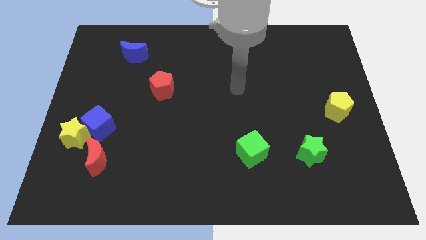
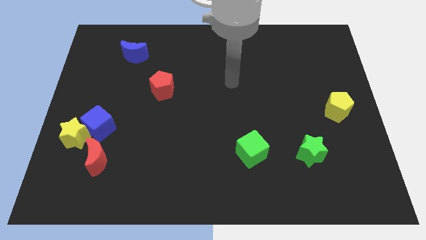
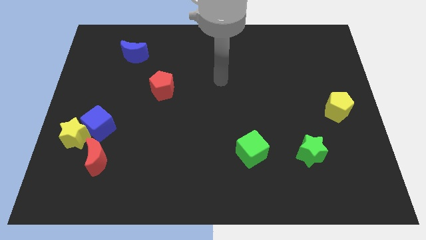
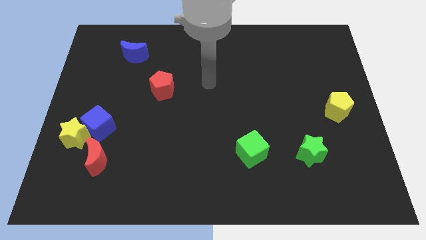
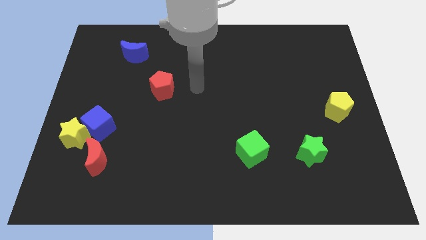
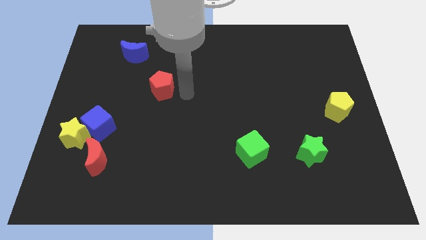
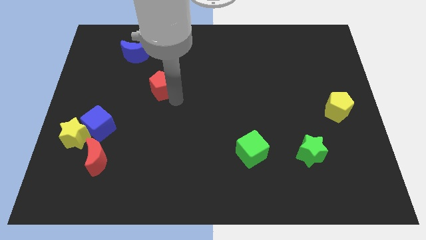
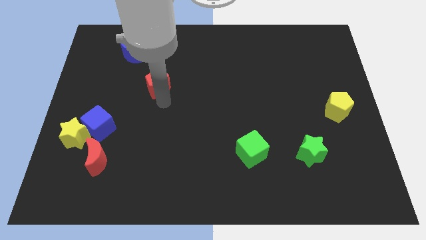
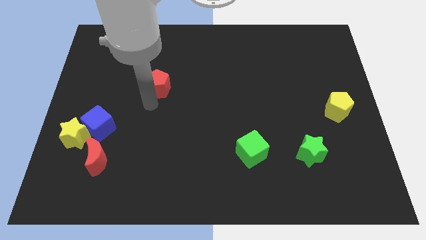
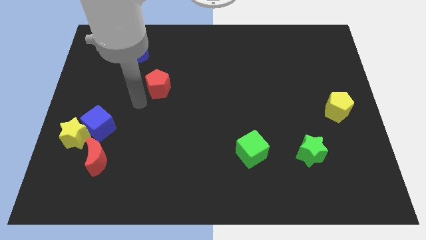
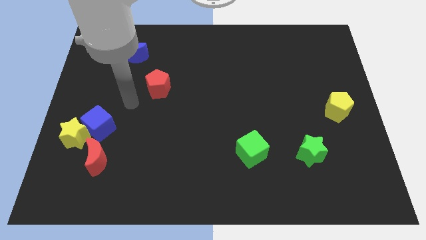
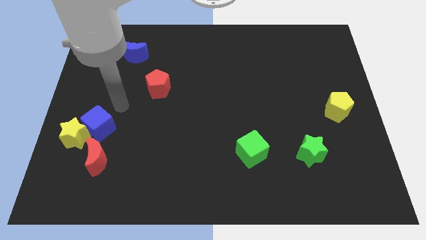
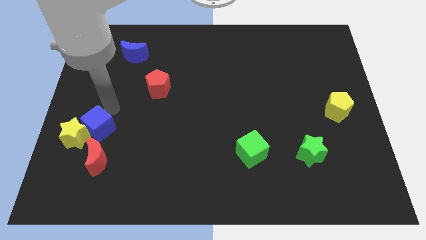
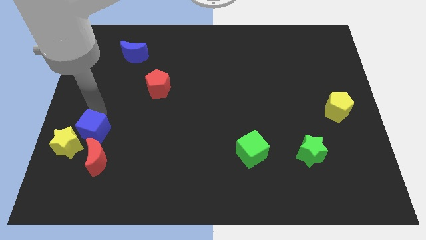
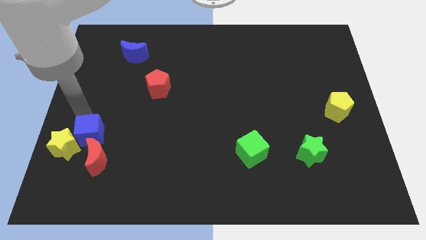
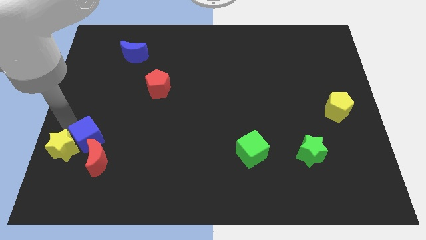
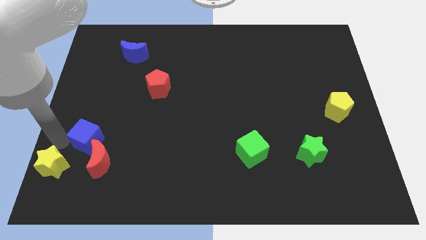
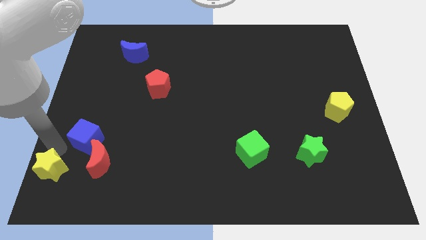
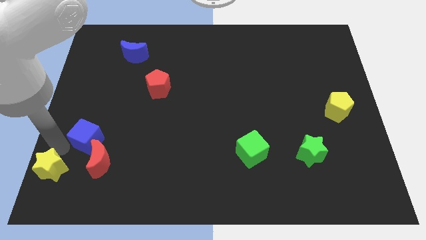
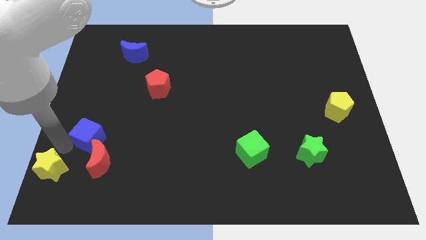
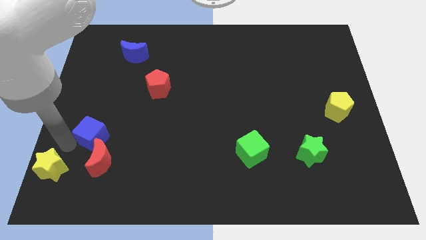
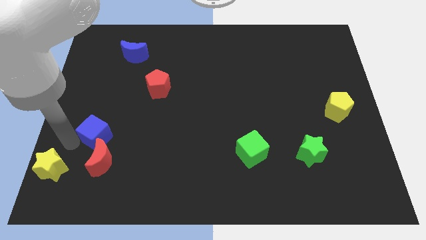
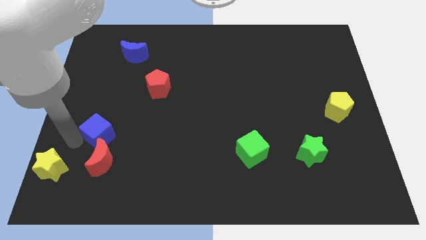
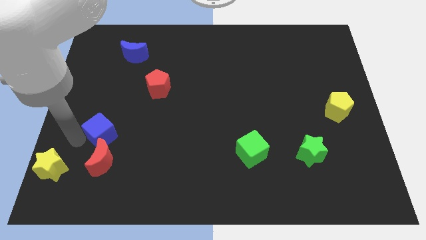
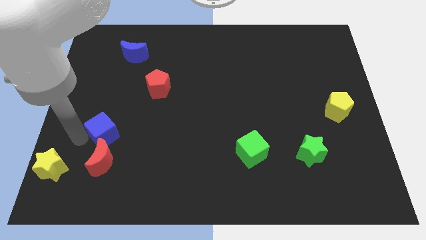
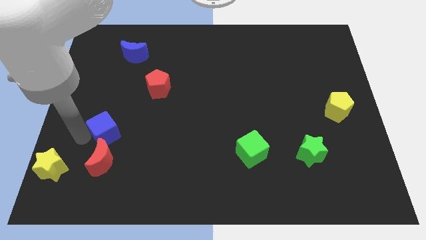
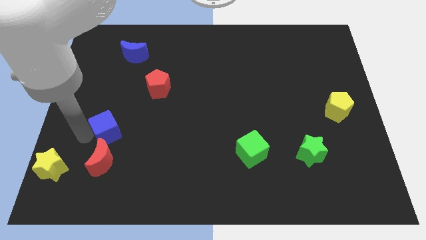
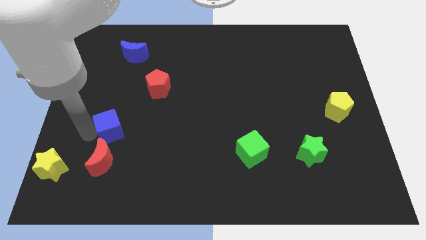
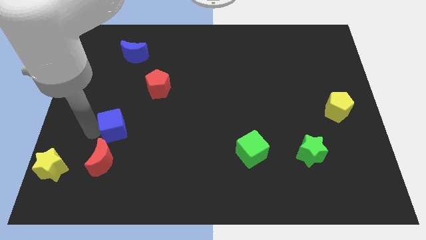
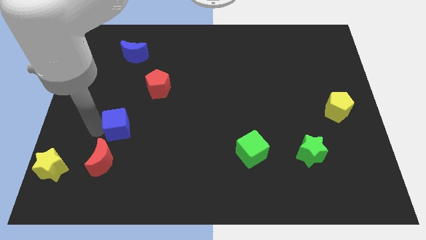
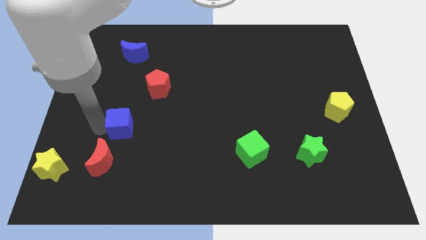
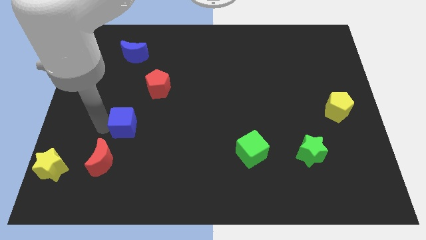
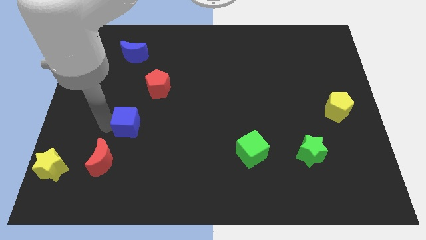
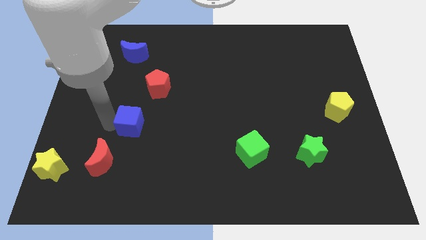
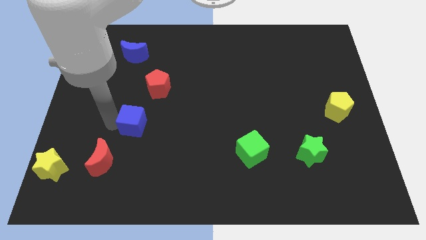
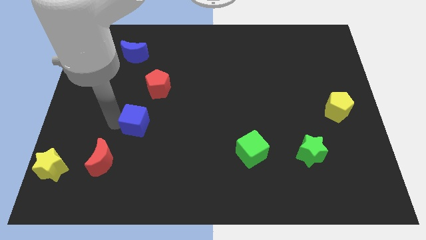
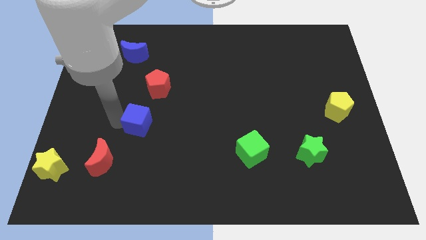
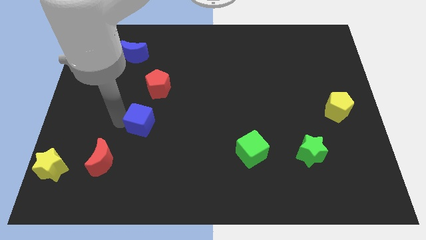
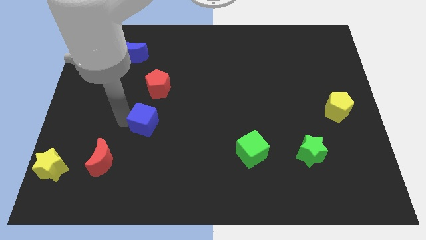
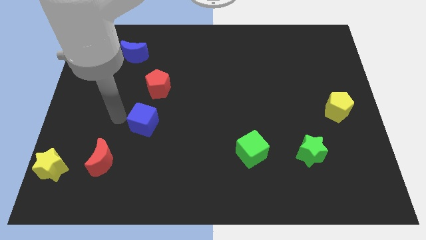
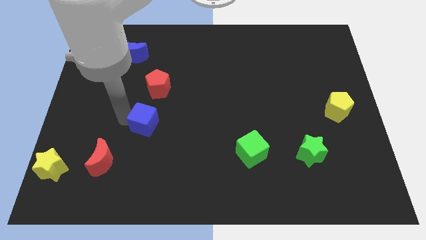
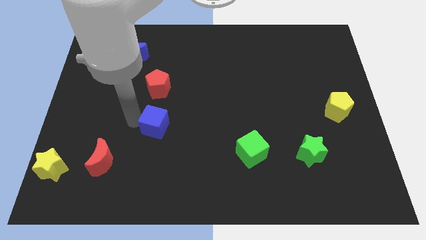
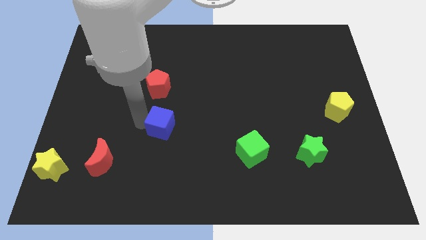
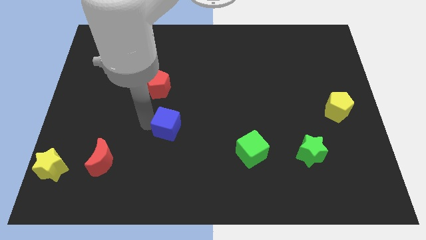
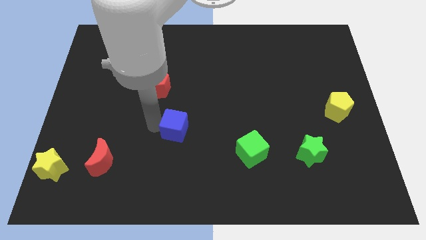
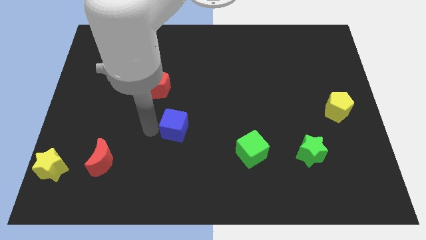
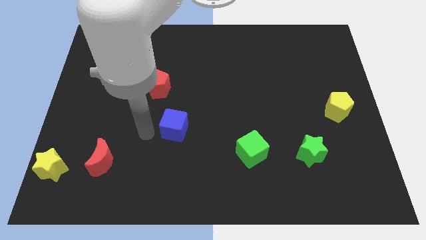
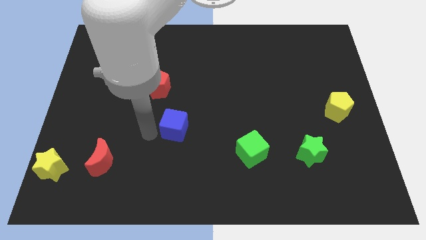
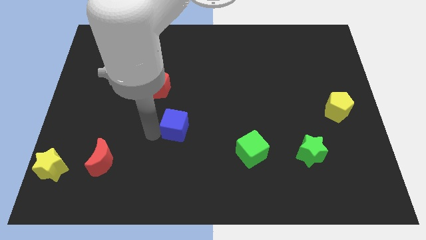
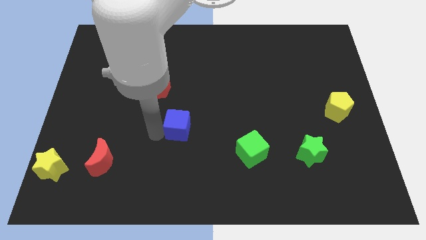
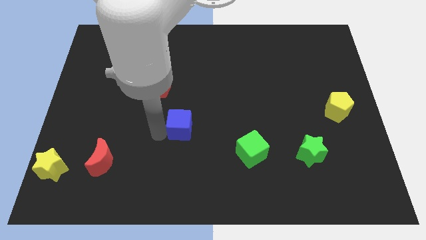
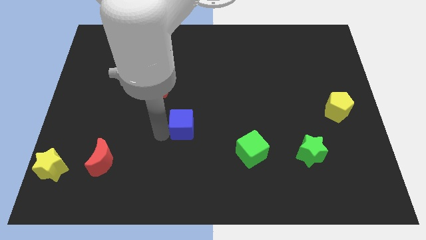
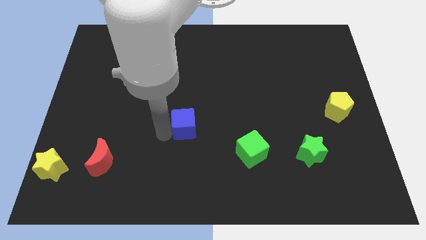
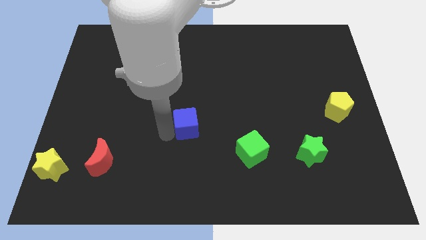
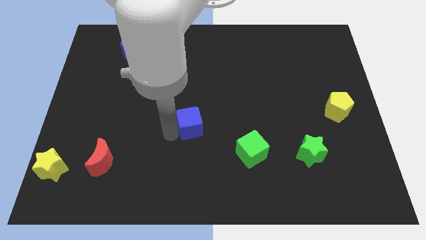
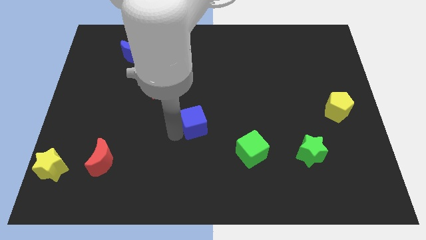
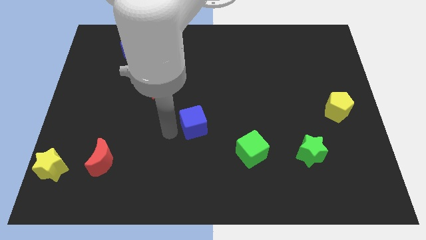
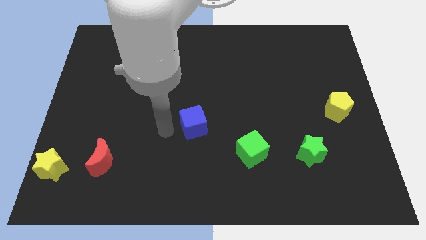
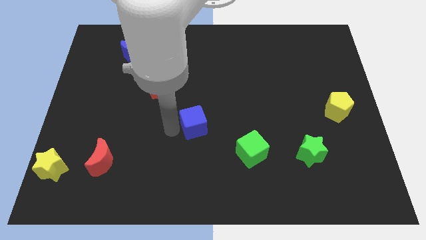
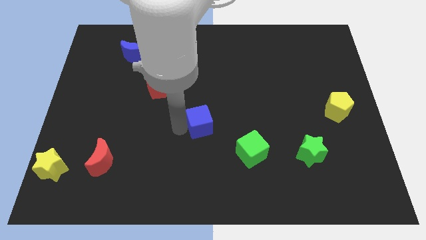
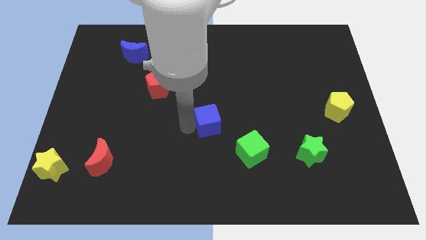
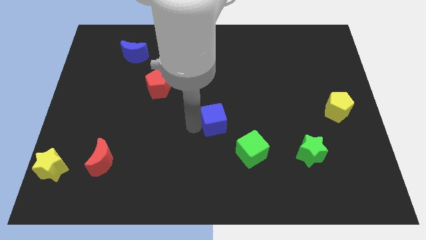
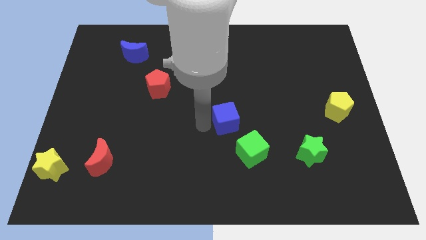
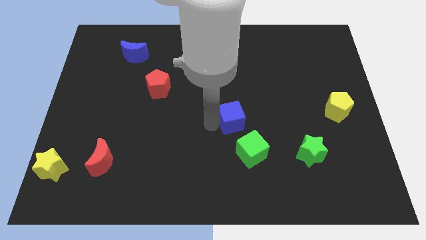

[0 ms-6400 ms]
slide the blue cube to the top side of the green cube

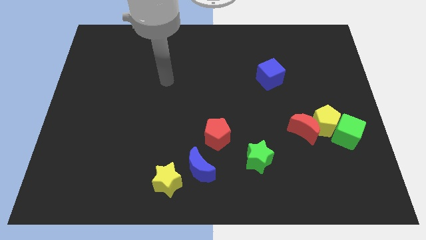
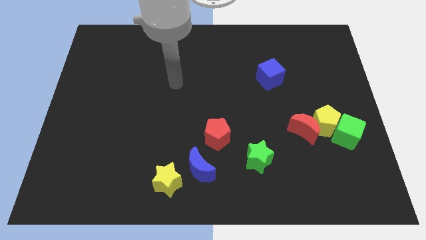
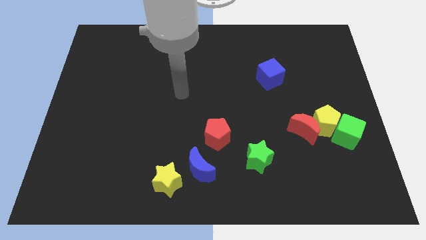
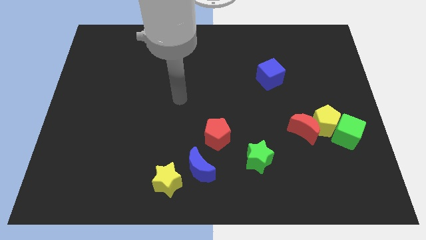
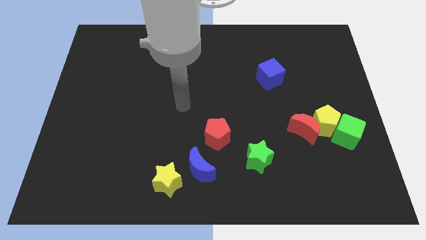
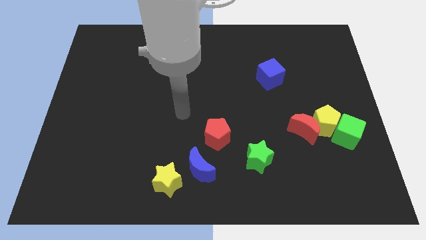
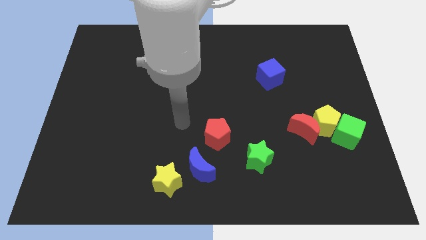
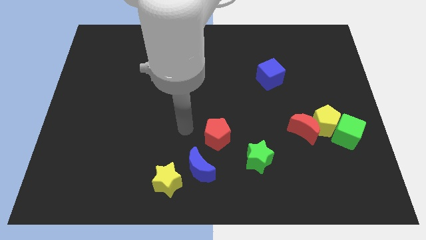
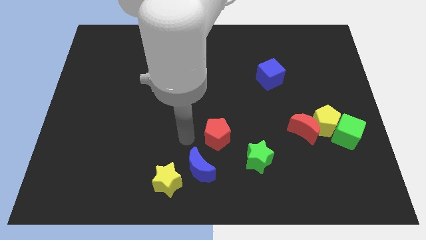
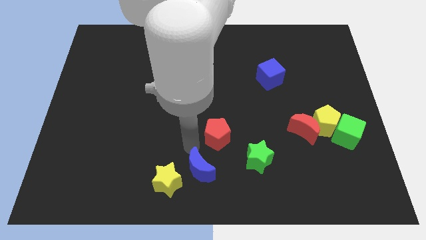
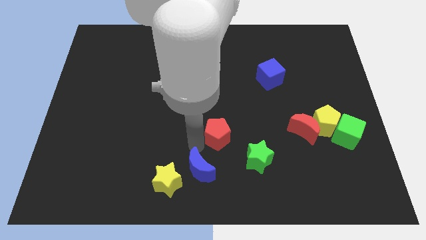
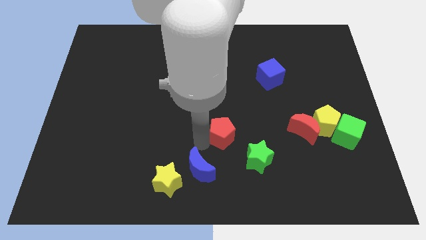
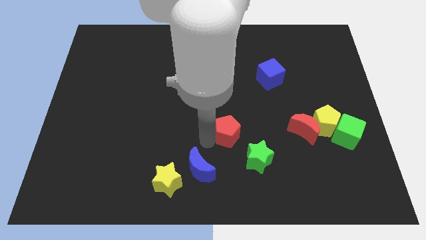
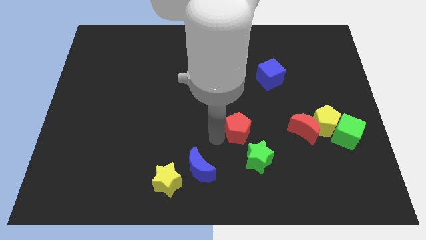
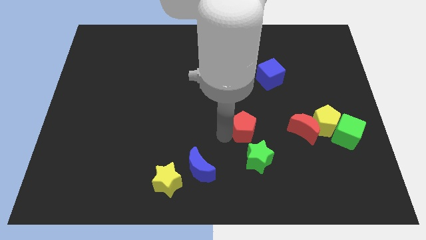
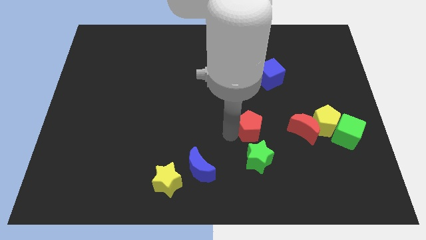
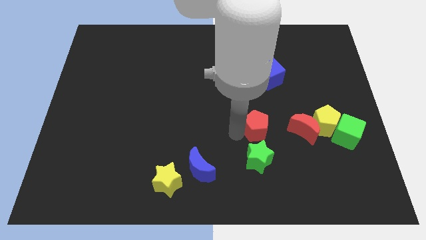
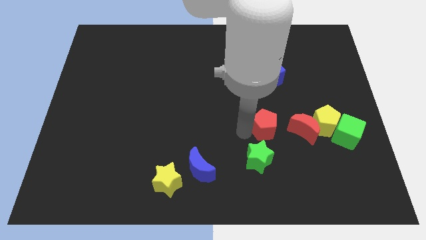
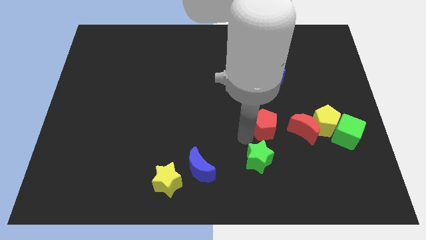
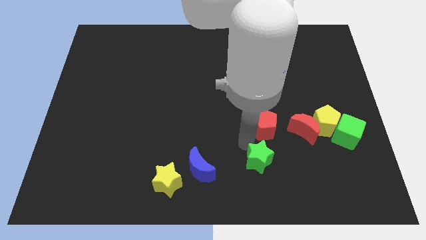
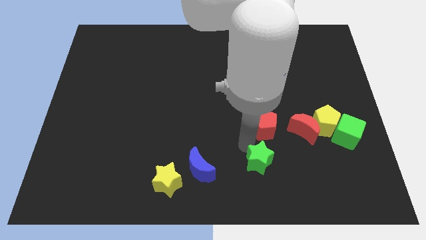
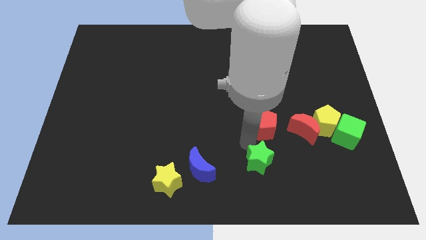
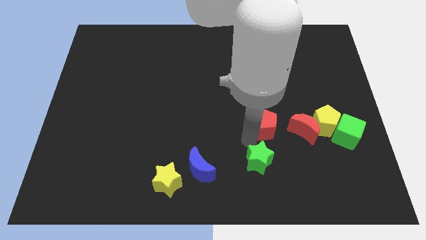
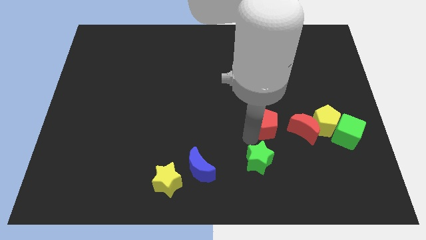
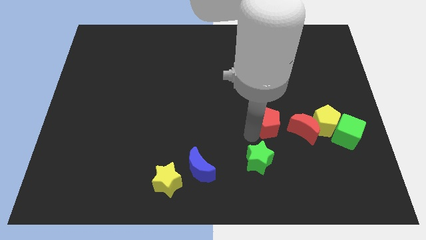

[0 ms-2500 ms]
put the red pentagon diagonally up and to the left of the red moon
